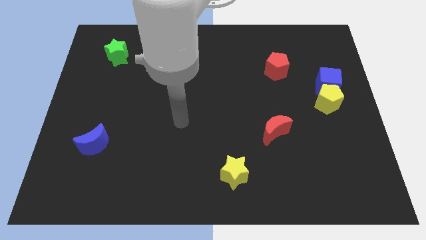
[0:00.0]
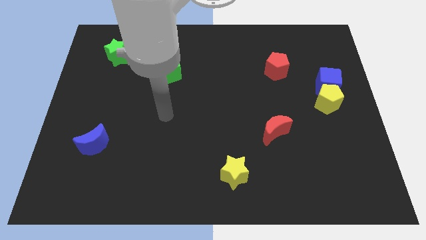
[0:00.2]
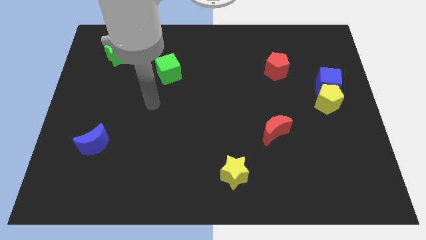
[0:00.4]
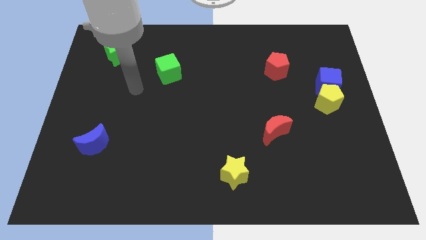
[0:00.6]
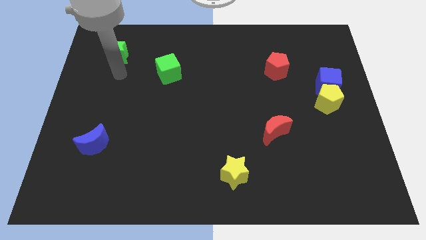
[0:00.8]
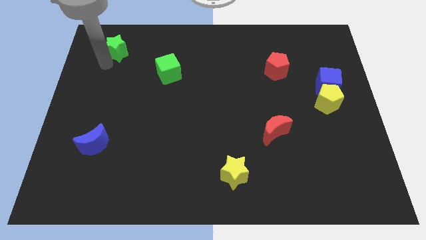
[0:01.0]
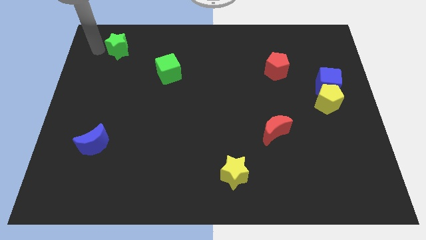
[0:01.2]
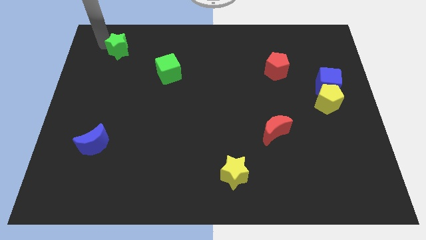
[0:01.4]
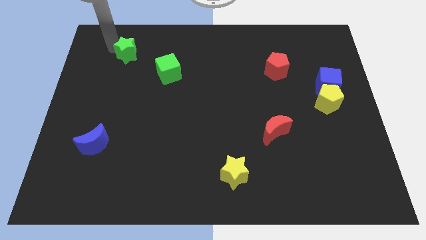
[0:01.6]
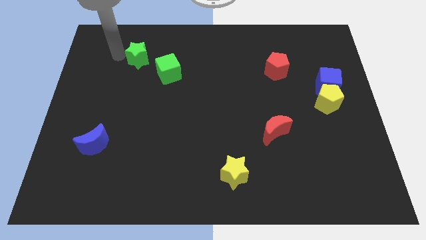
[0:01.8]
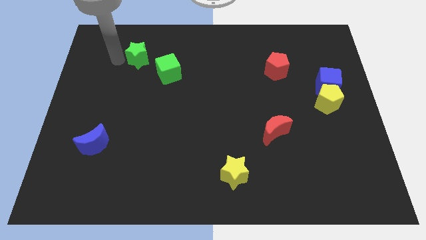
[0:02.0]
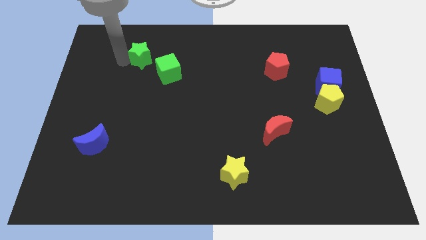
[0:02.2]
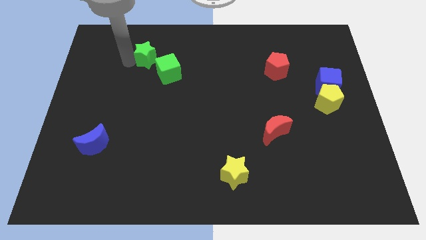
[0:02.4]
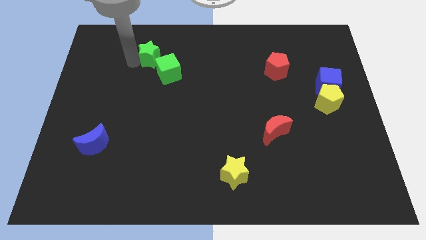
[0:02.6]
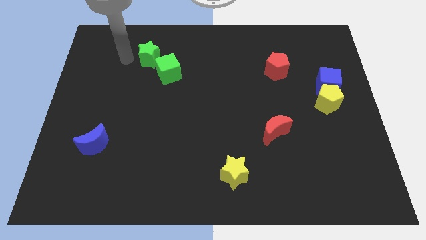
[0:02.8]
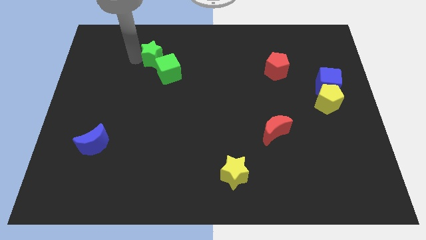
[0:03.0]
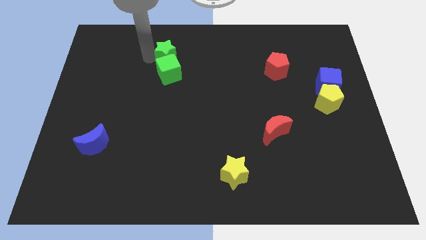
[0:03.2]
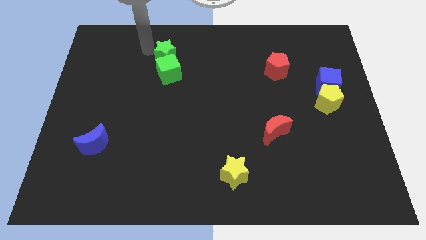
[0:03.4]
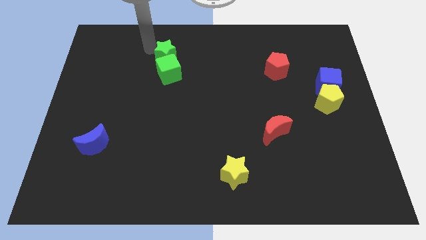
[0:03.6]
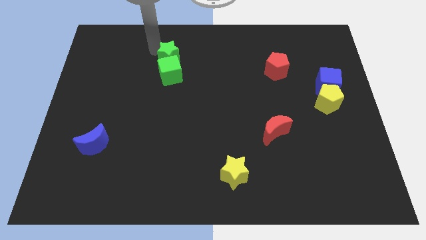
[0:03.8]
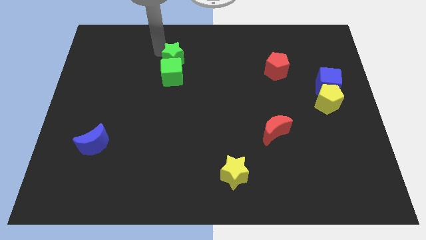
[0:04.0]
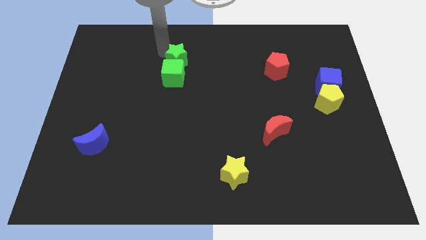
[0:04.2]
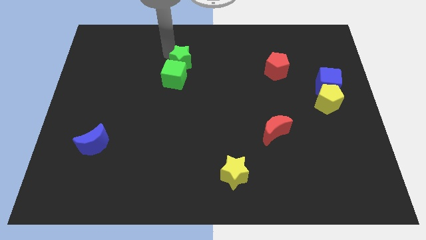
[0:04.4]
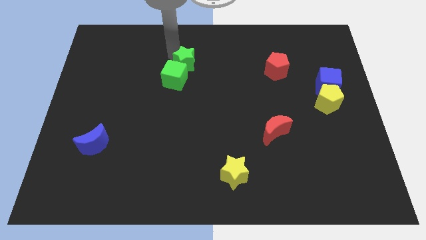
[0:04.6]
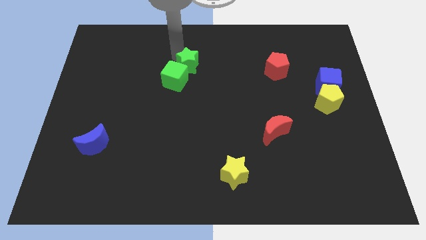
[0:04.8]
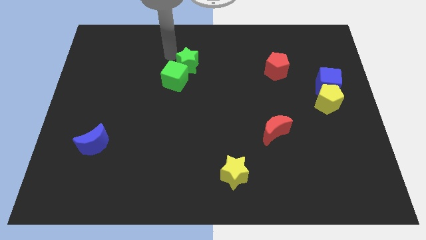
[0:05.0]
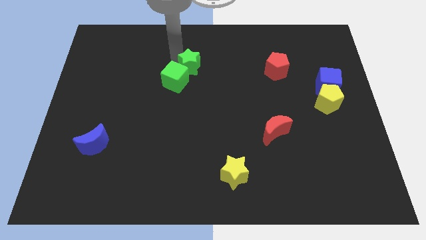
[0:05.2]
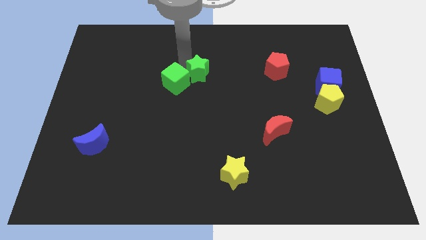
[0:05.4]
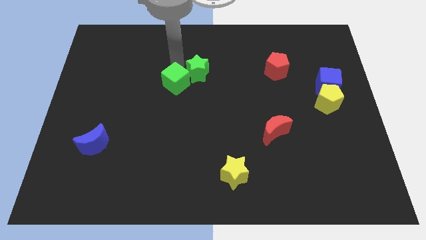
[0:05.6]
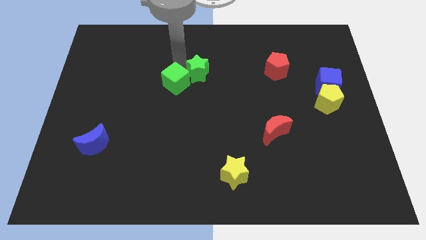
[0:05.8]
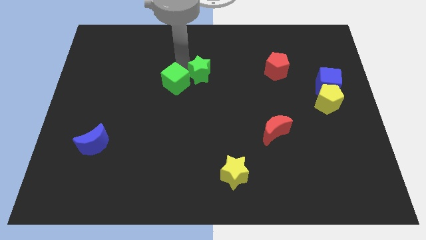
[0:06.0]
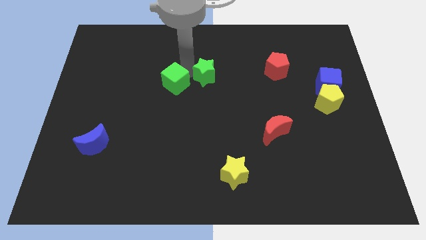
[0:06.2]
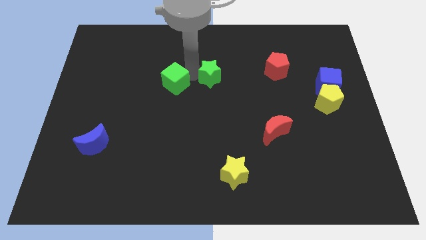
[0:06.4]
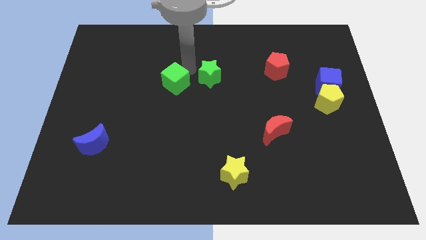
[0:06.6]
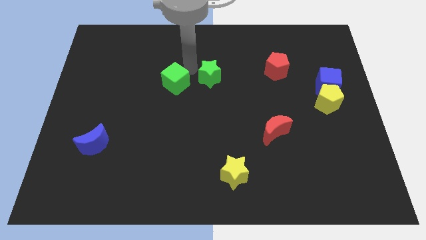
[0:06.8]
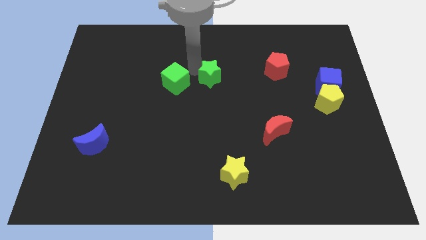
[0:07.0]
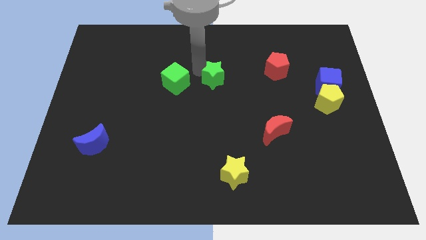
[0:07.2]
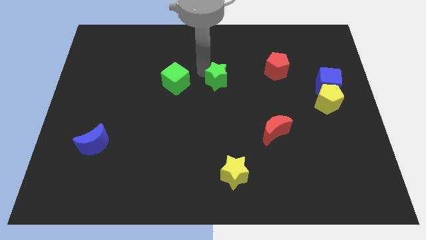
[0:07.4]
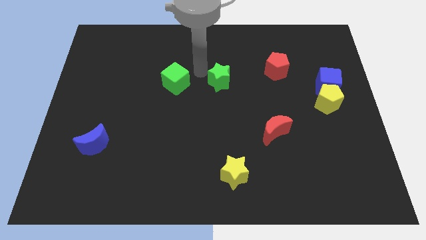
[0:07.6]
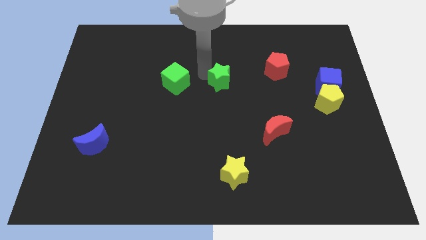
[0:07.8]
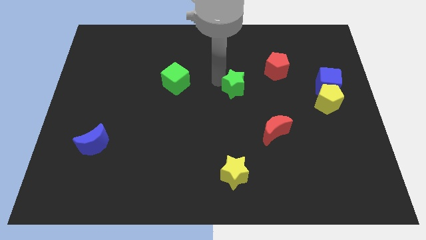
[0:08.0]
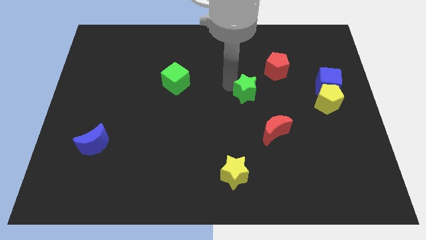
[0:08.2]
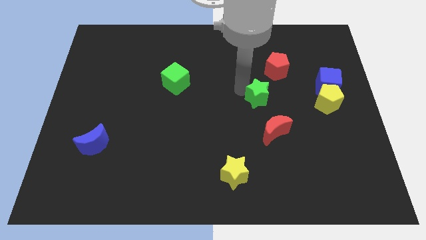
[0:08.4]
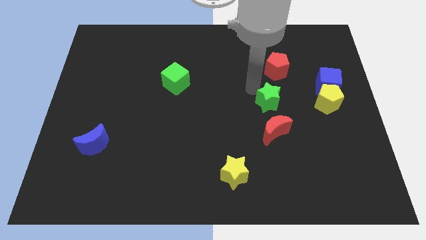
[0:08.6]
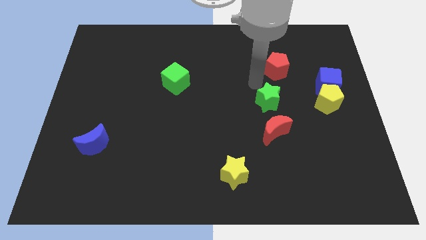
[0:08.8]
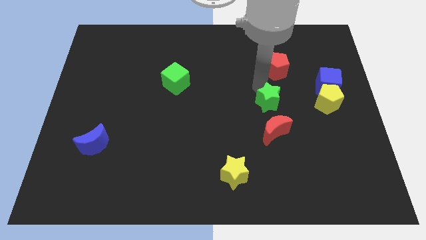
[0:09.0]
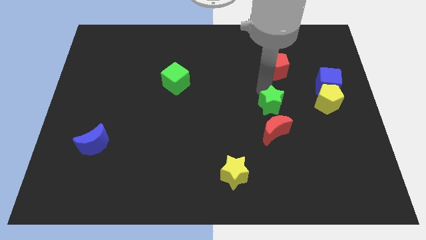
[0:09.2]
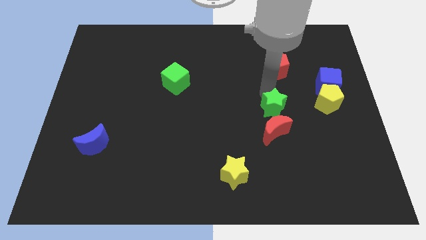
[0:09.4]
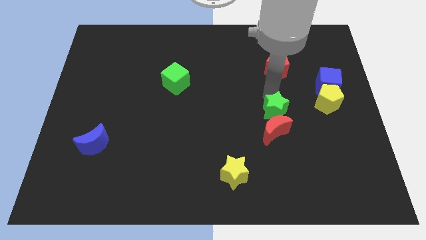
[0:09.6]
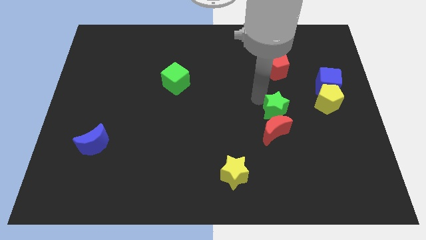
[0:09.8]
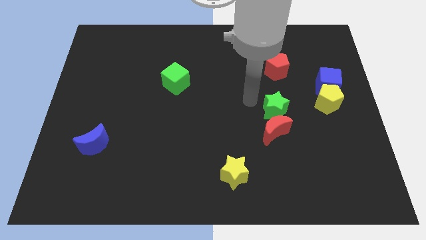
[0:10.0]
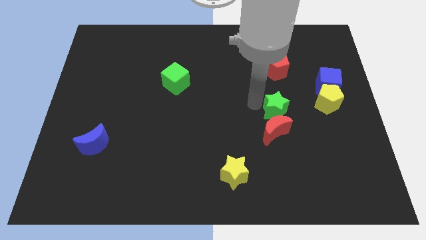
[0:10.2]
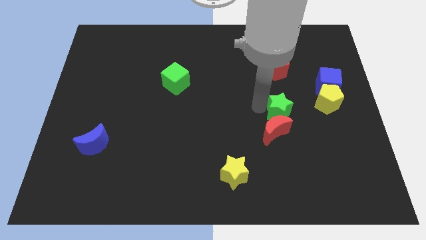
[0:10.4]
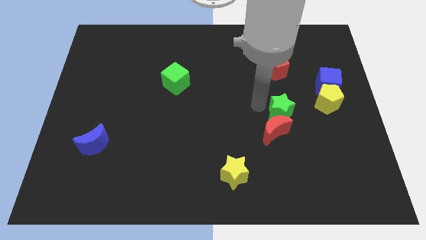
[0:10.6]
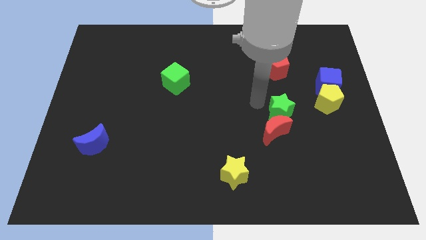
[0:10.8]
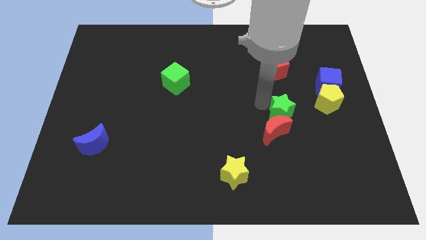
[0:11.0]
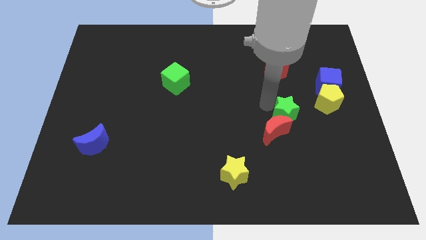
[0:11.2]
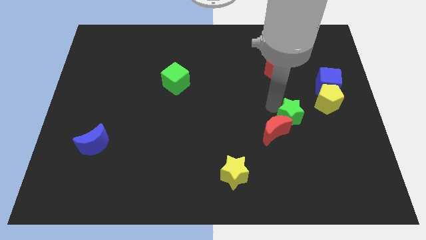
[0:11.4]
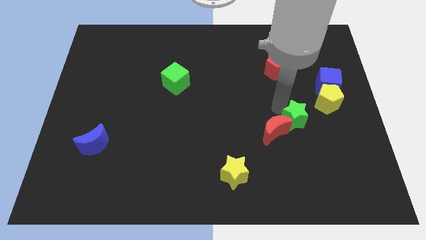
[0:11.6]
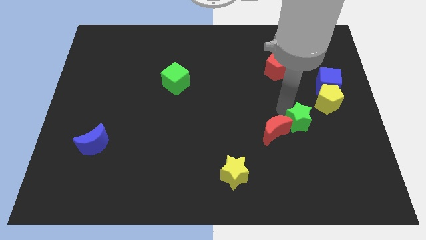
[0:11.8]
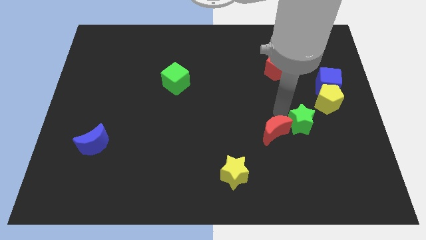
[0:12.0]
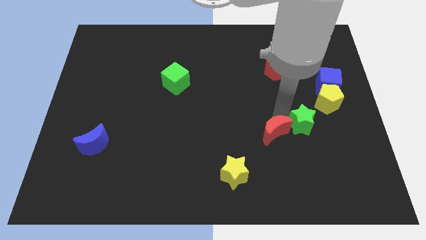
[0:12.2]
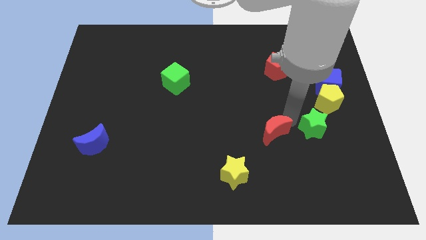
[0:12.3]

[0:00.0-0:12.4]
put the green star below the yellow pentagon

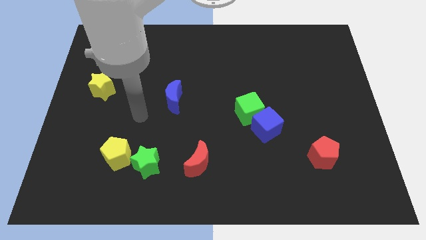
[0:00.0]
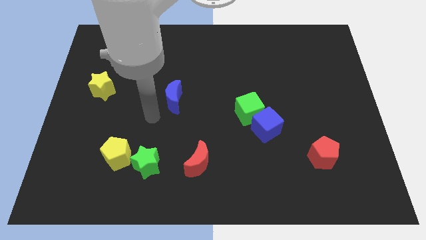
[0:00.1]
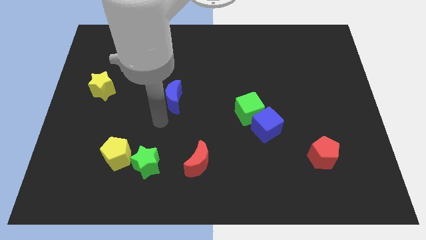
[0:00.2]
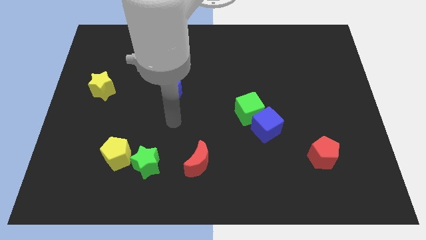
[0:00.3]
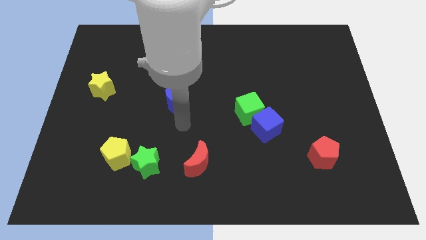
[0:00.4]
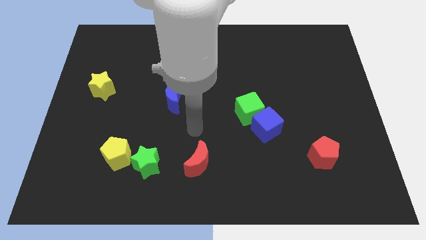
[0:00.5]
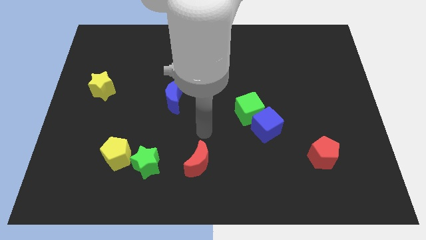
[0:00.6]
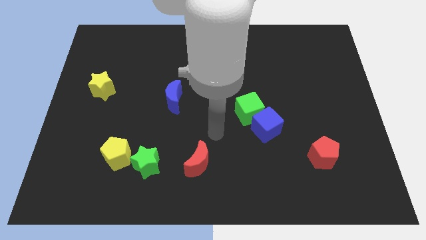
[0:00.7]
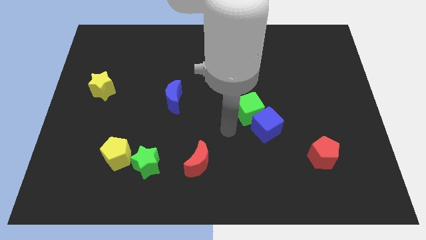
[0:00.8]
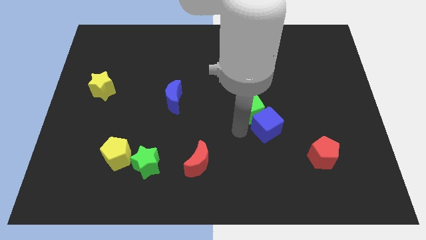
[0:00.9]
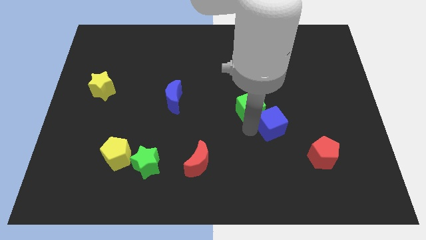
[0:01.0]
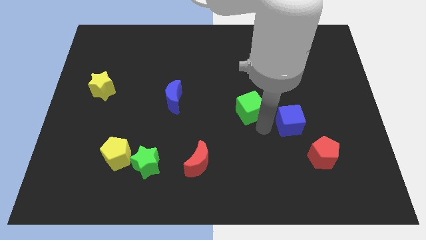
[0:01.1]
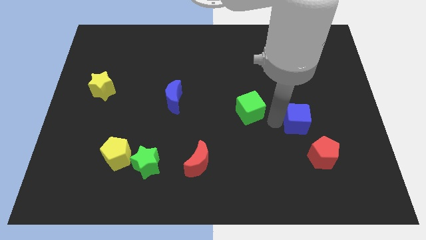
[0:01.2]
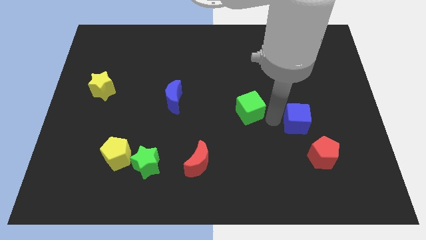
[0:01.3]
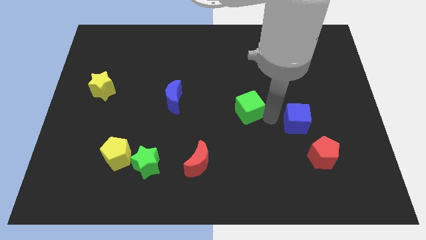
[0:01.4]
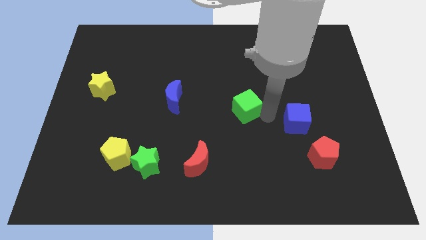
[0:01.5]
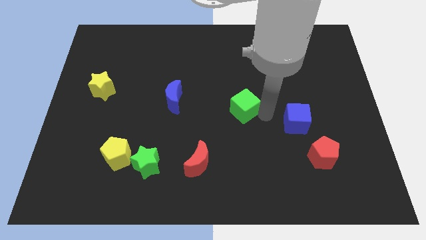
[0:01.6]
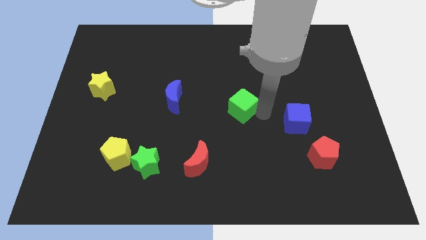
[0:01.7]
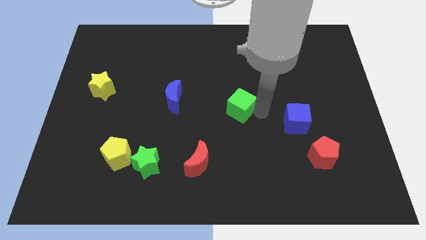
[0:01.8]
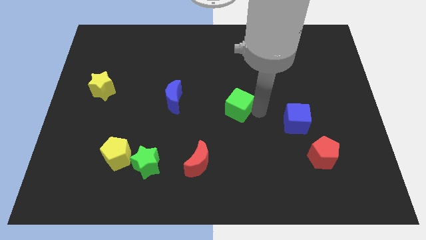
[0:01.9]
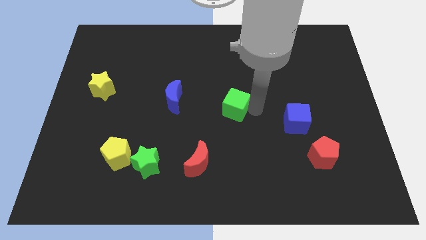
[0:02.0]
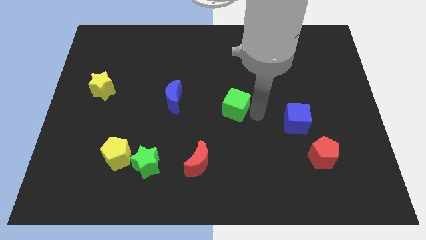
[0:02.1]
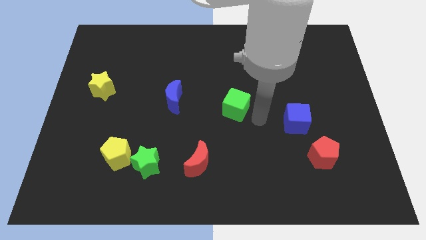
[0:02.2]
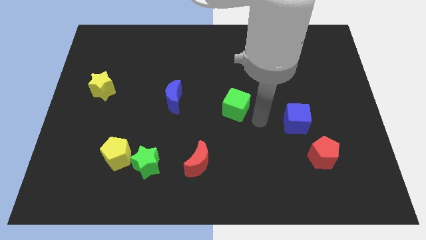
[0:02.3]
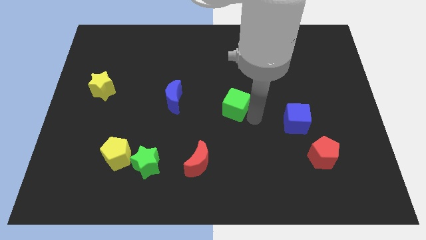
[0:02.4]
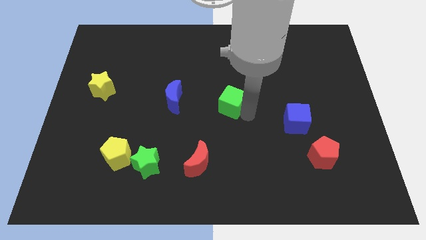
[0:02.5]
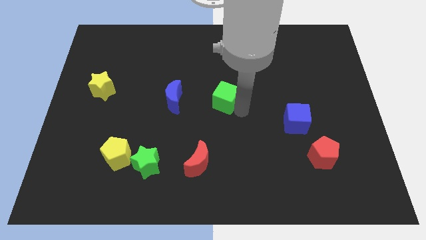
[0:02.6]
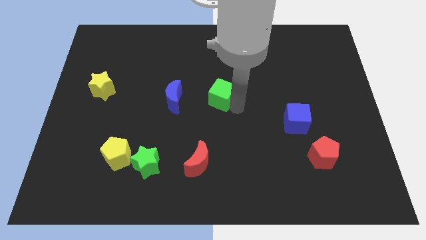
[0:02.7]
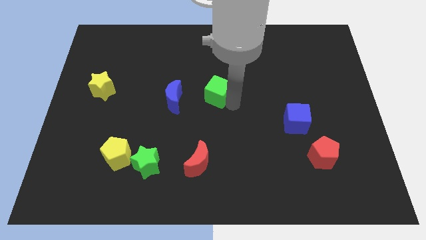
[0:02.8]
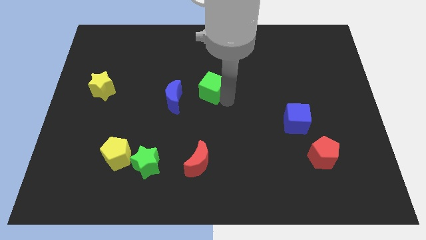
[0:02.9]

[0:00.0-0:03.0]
put the green cube to the top right of the blue moon
